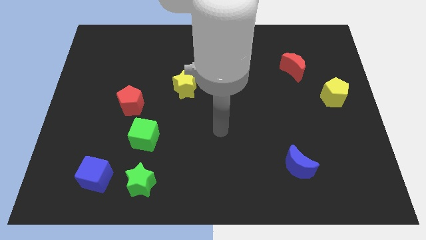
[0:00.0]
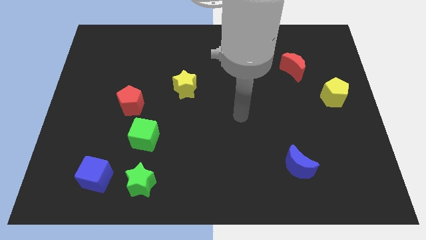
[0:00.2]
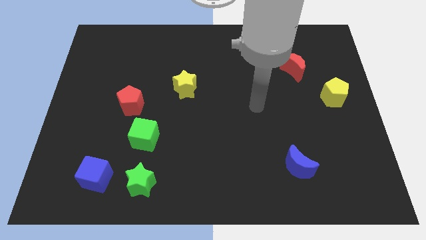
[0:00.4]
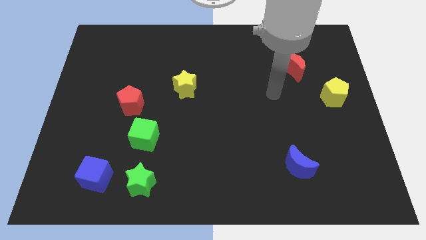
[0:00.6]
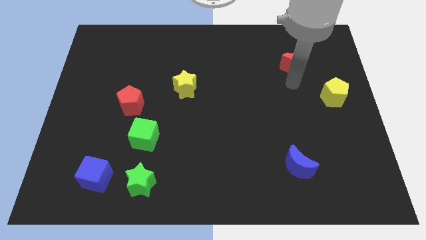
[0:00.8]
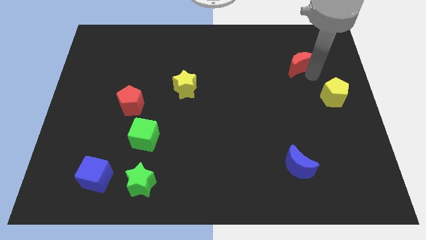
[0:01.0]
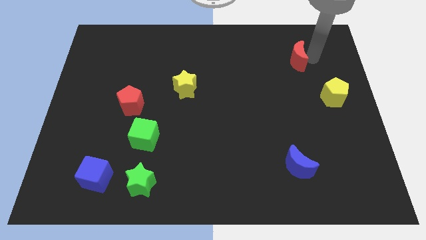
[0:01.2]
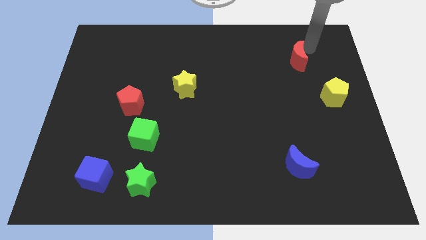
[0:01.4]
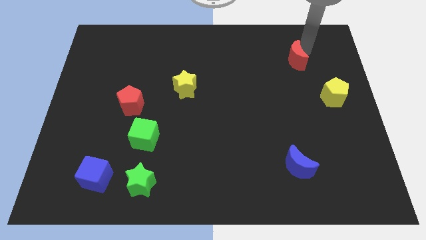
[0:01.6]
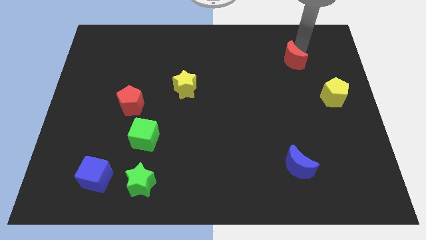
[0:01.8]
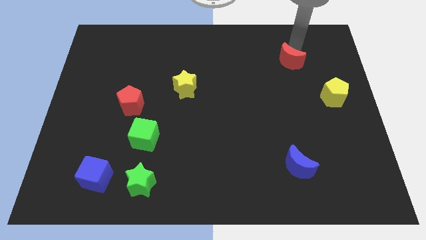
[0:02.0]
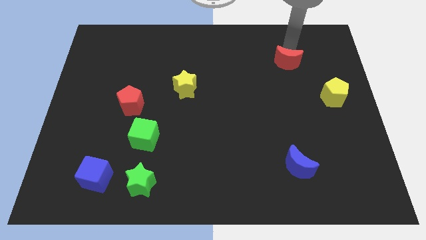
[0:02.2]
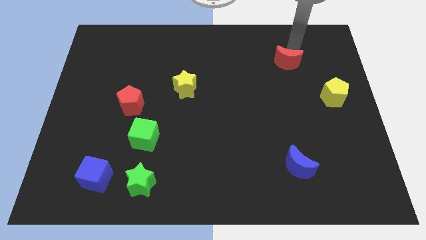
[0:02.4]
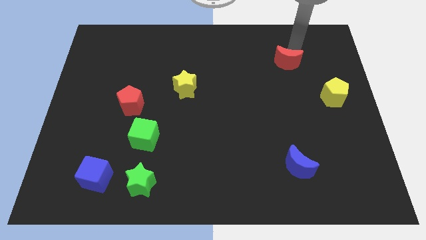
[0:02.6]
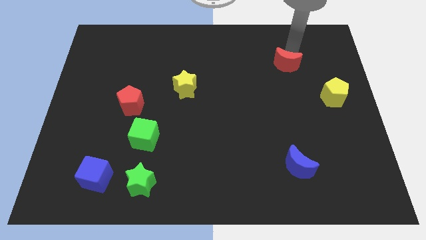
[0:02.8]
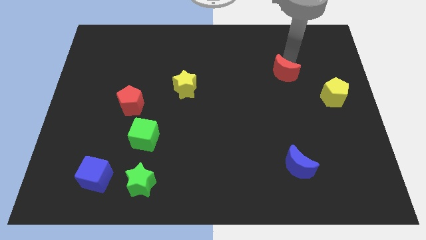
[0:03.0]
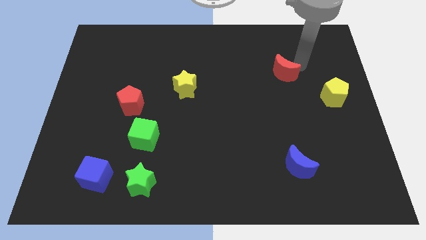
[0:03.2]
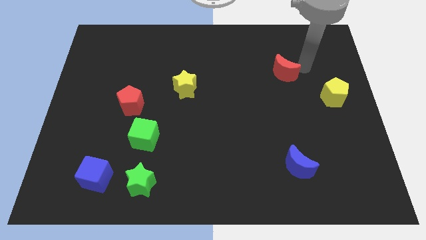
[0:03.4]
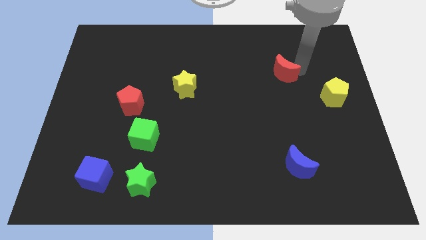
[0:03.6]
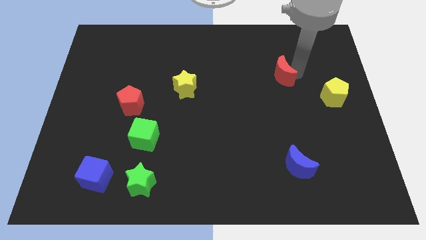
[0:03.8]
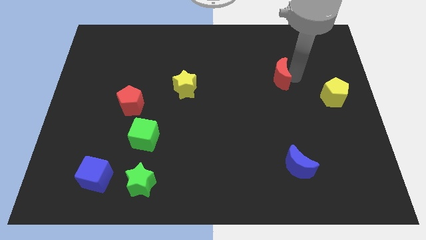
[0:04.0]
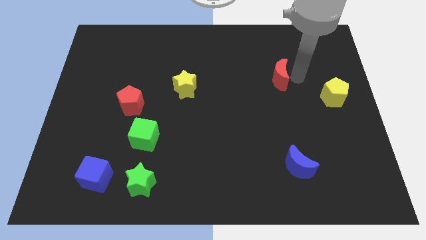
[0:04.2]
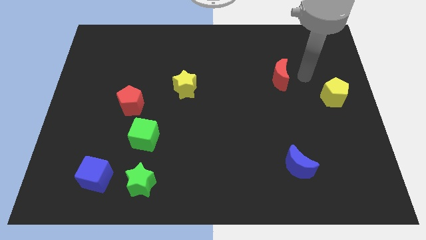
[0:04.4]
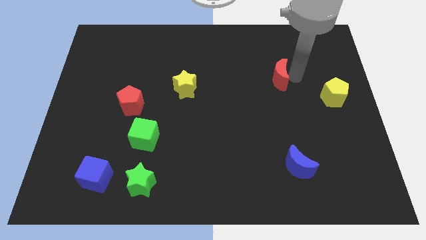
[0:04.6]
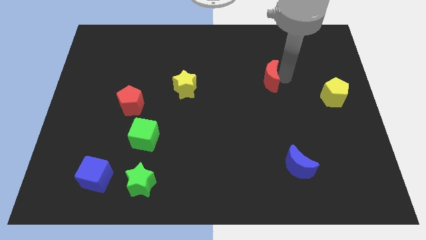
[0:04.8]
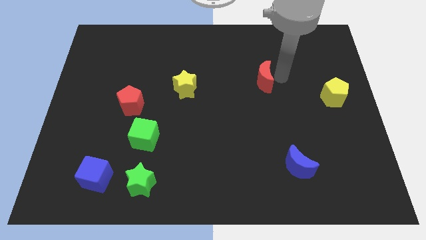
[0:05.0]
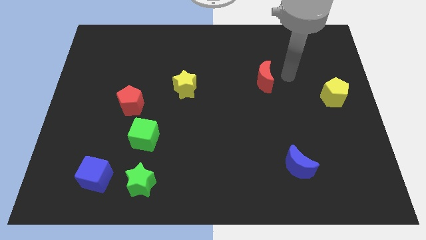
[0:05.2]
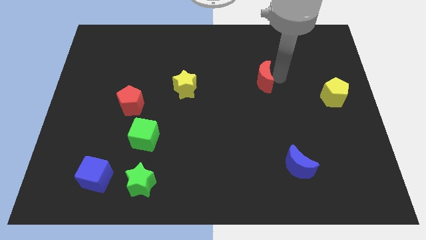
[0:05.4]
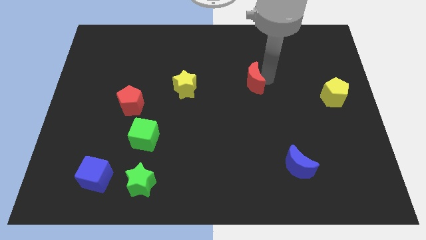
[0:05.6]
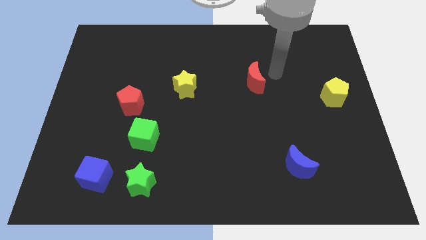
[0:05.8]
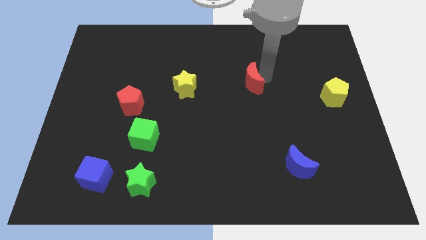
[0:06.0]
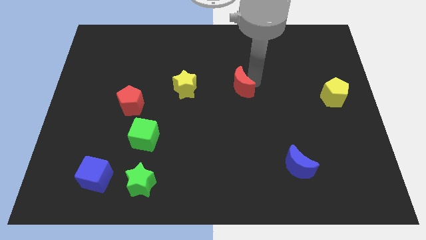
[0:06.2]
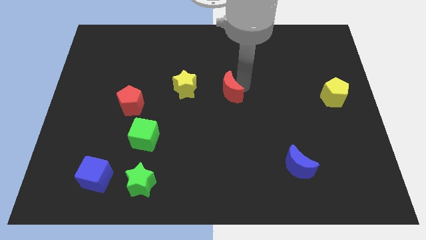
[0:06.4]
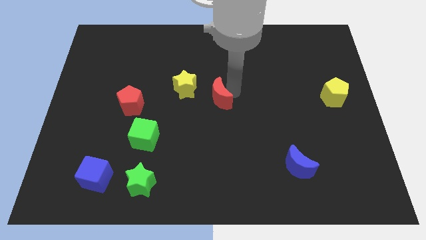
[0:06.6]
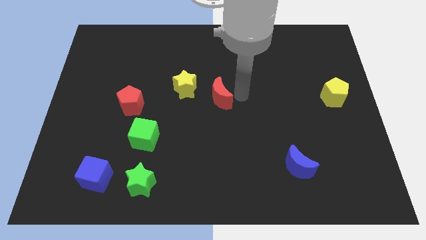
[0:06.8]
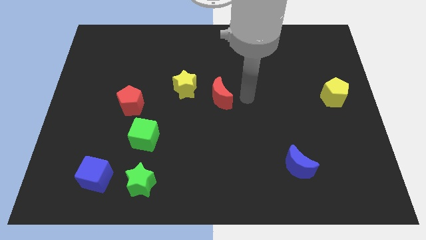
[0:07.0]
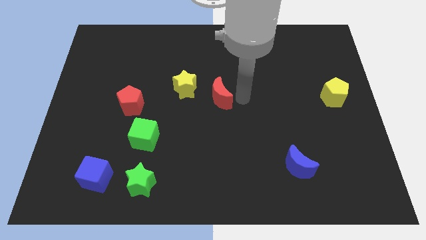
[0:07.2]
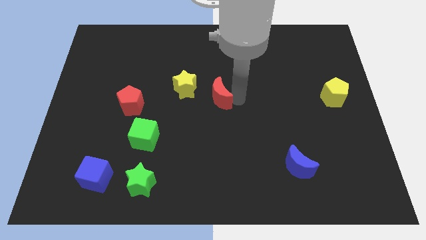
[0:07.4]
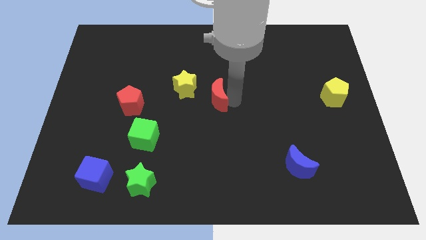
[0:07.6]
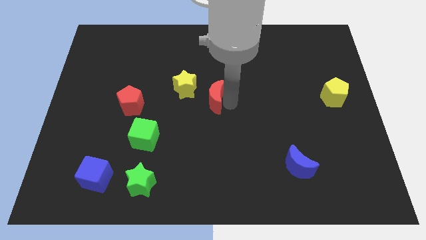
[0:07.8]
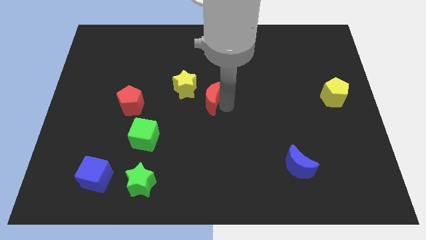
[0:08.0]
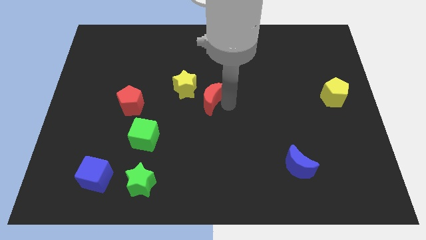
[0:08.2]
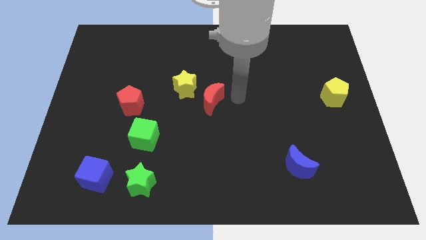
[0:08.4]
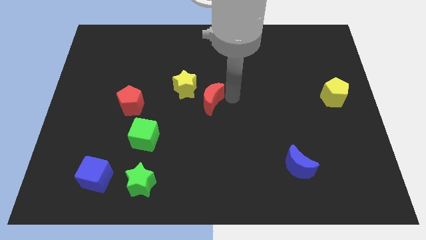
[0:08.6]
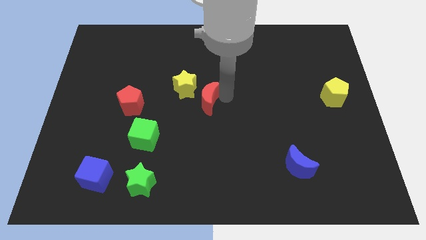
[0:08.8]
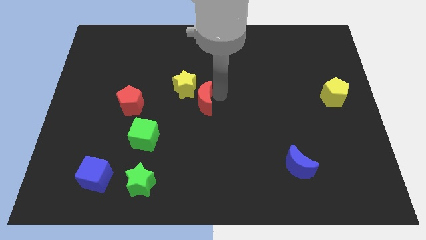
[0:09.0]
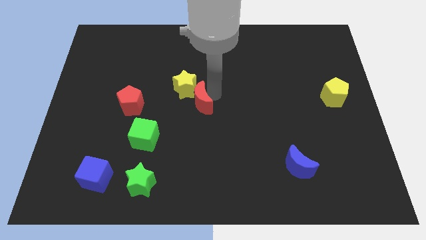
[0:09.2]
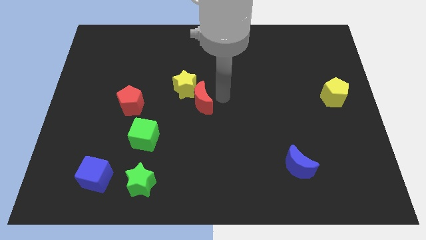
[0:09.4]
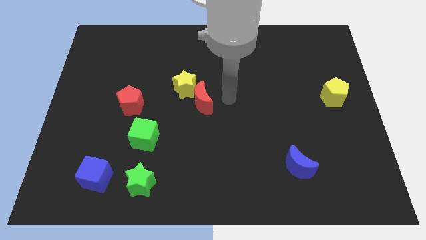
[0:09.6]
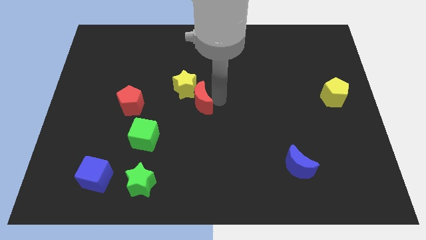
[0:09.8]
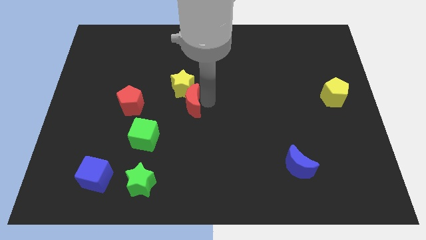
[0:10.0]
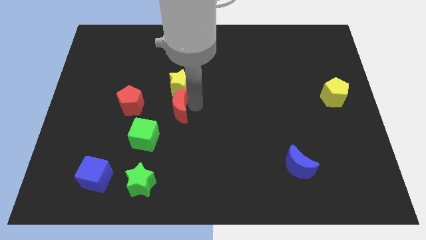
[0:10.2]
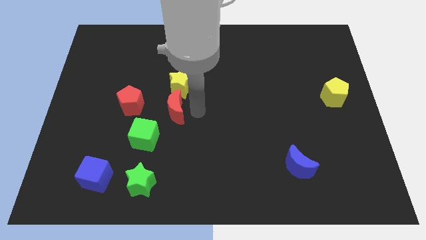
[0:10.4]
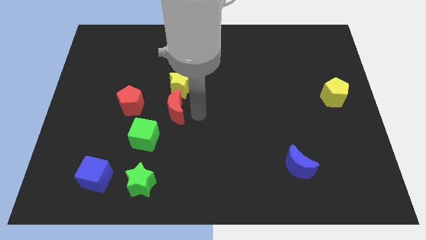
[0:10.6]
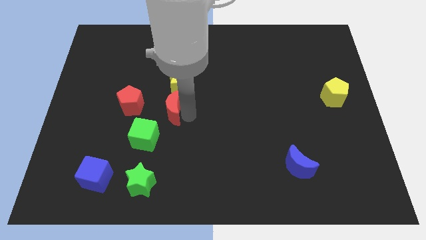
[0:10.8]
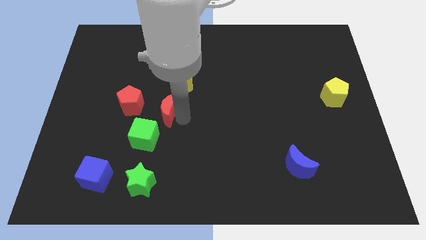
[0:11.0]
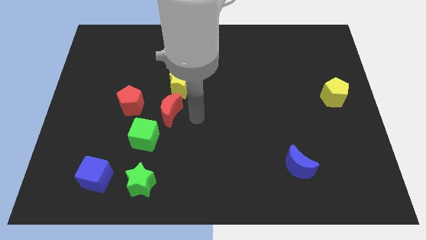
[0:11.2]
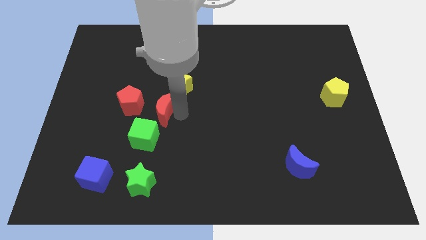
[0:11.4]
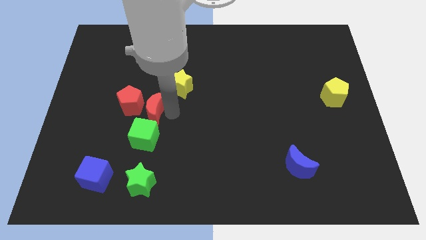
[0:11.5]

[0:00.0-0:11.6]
push the red moon close to the red pentagon

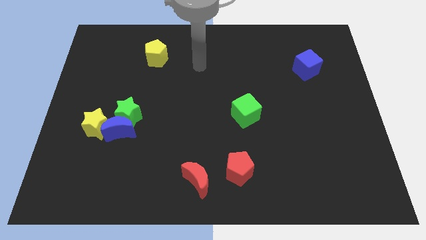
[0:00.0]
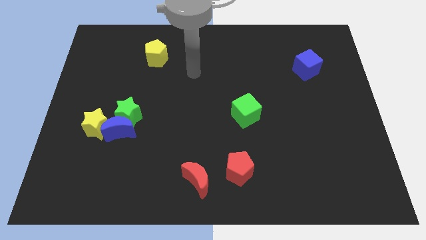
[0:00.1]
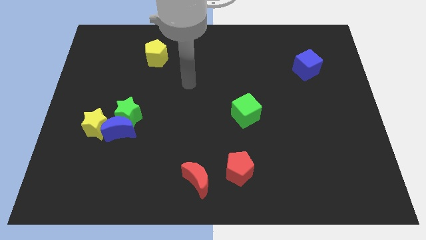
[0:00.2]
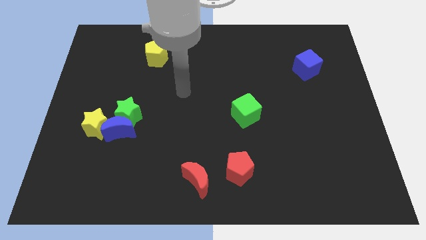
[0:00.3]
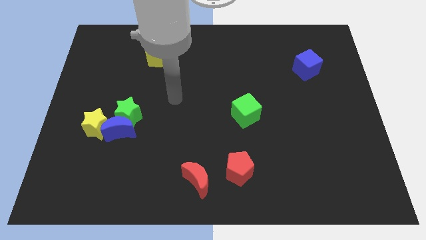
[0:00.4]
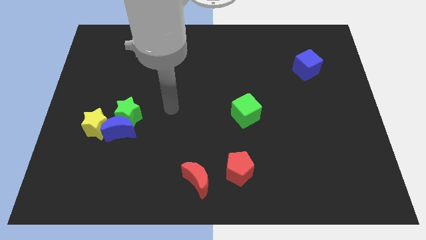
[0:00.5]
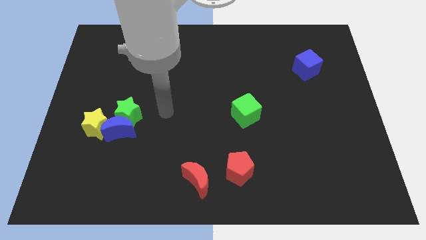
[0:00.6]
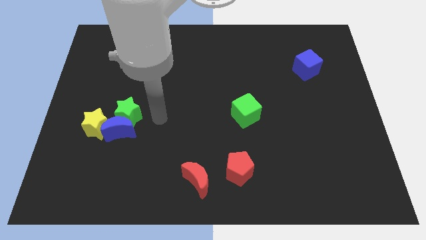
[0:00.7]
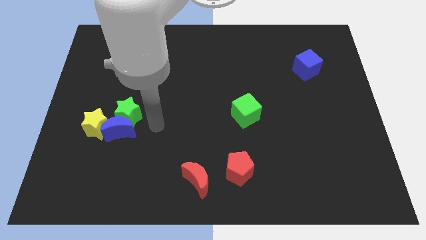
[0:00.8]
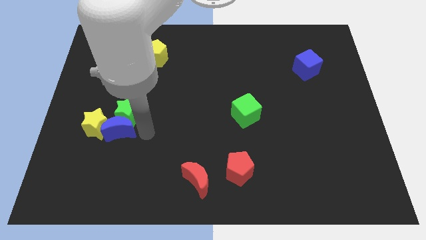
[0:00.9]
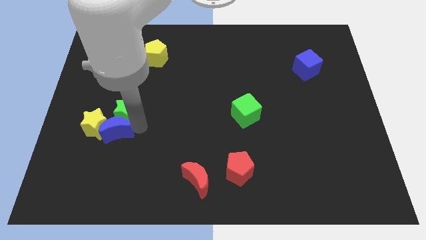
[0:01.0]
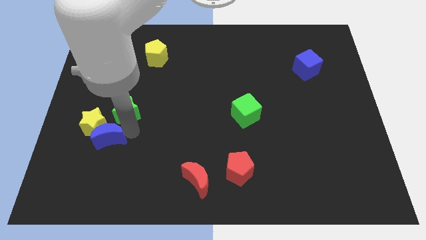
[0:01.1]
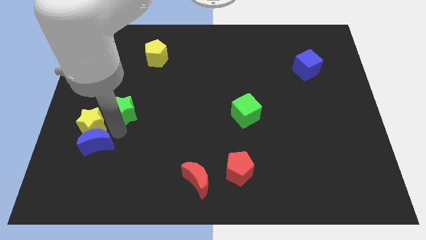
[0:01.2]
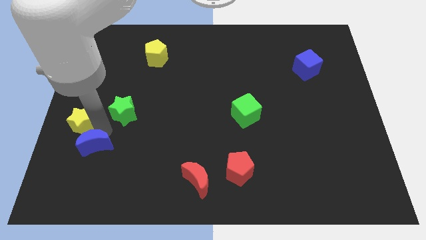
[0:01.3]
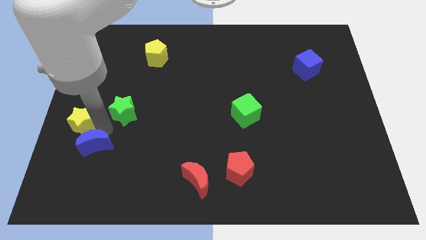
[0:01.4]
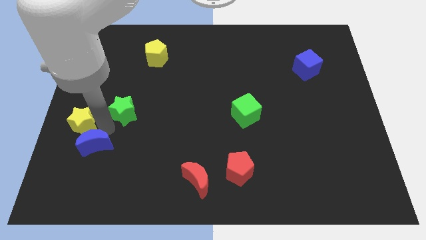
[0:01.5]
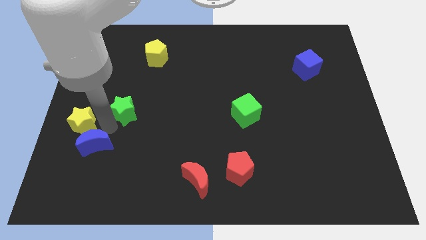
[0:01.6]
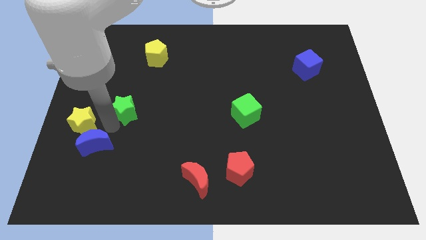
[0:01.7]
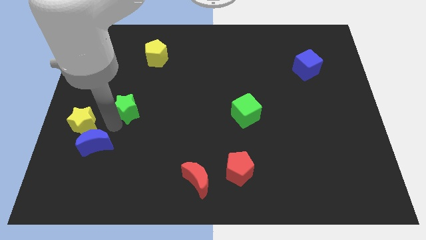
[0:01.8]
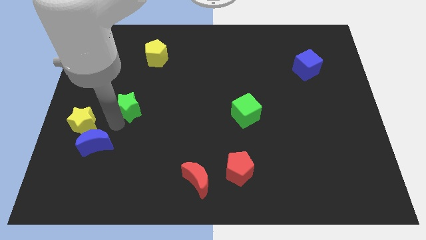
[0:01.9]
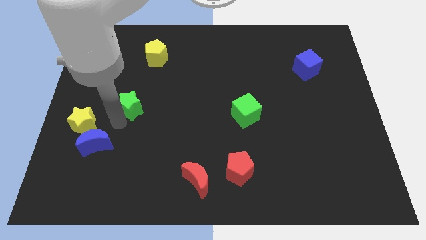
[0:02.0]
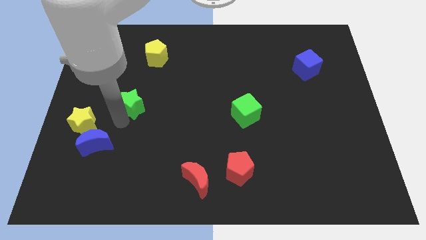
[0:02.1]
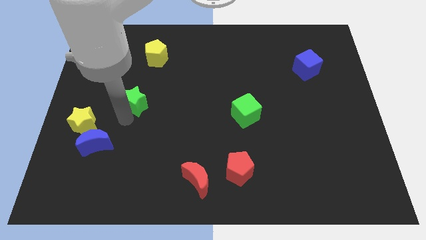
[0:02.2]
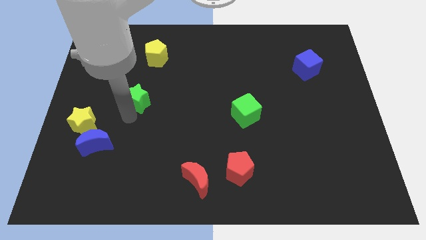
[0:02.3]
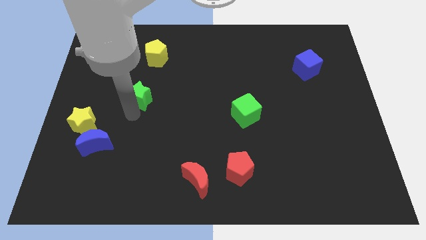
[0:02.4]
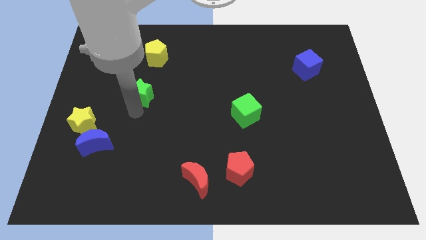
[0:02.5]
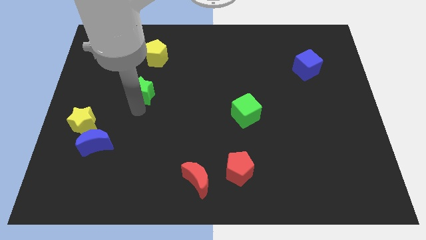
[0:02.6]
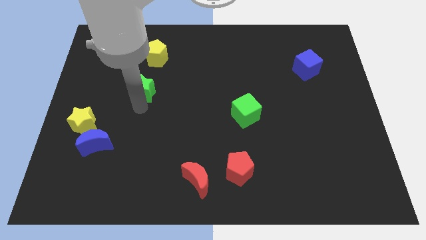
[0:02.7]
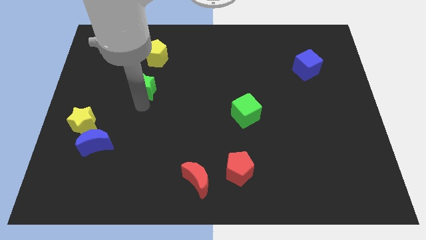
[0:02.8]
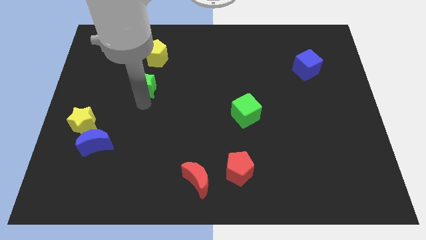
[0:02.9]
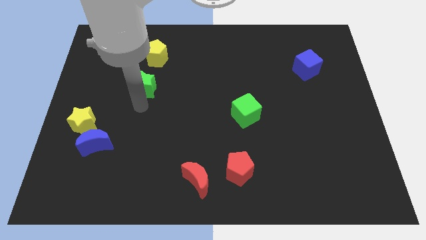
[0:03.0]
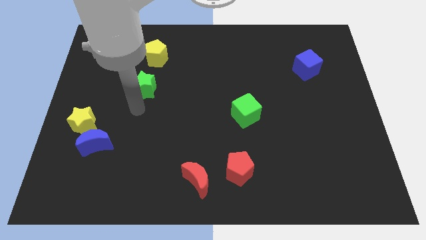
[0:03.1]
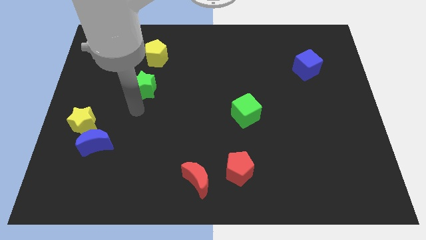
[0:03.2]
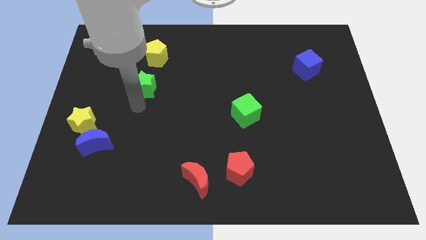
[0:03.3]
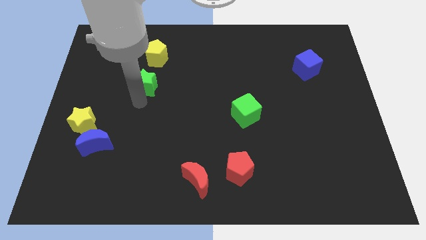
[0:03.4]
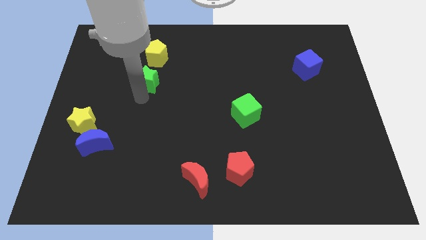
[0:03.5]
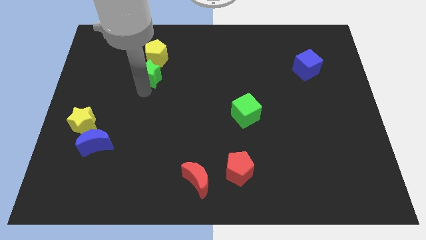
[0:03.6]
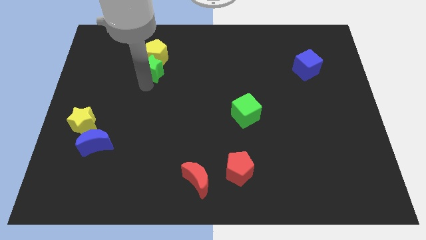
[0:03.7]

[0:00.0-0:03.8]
move the green star to the yellow pentagon
